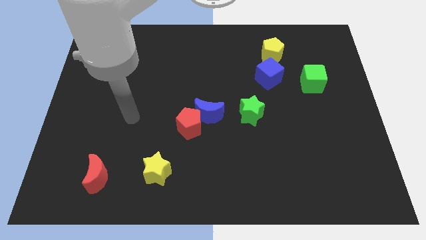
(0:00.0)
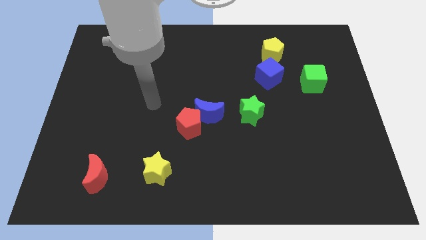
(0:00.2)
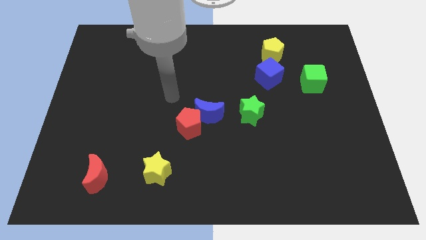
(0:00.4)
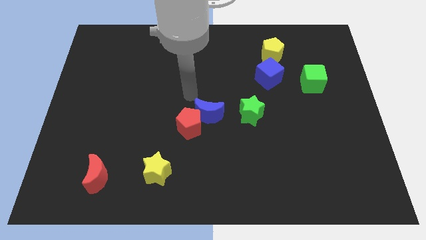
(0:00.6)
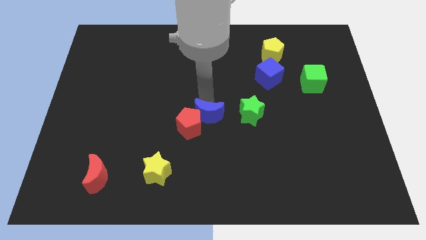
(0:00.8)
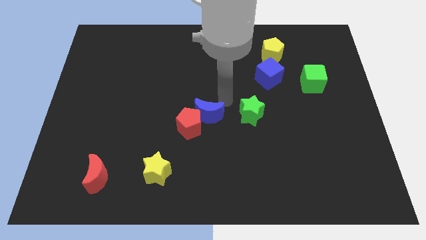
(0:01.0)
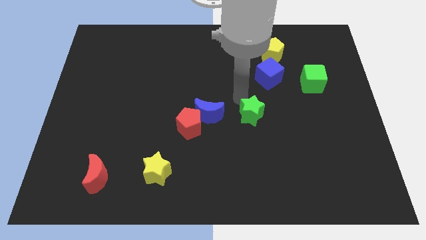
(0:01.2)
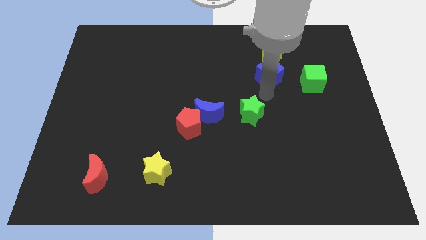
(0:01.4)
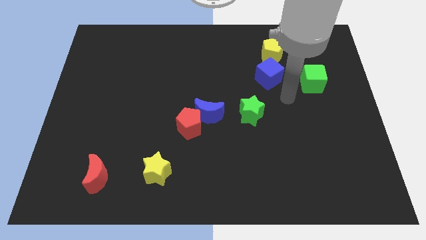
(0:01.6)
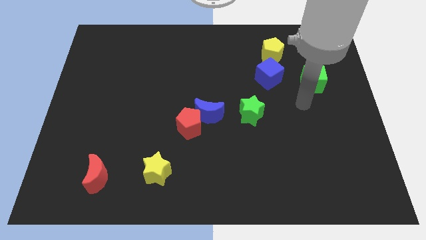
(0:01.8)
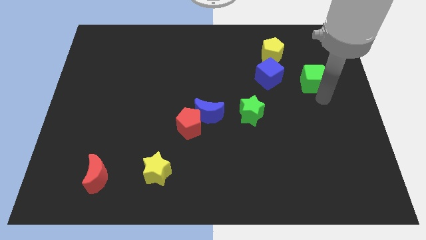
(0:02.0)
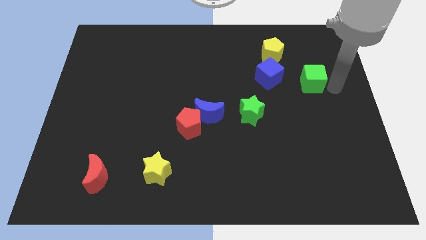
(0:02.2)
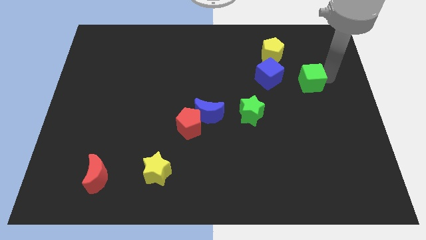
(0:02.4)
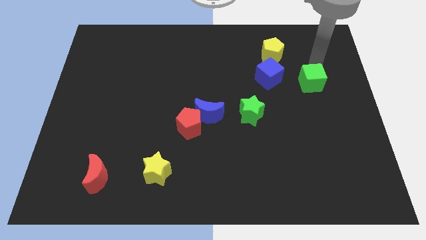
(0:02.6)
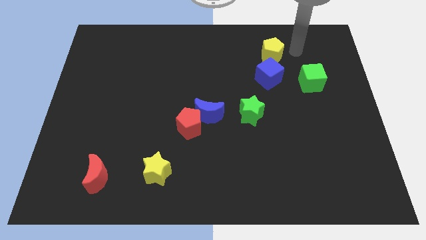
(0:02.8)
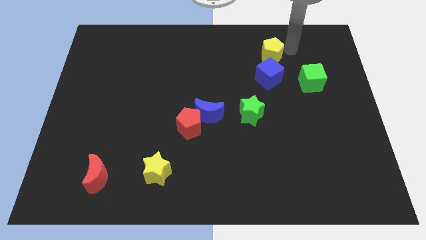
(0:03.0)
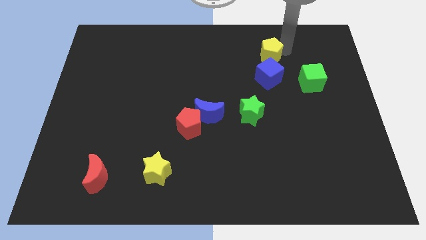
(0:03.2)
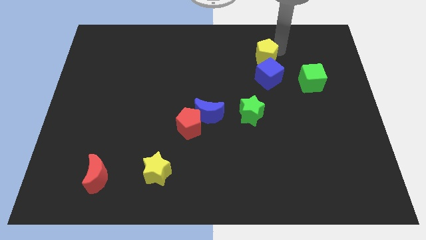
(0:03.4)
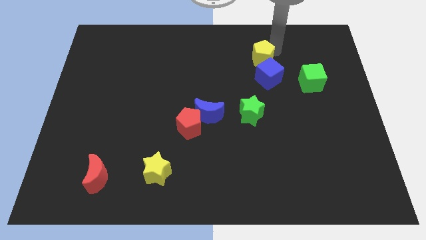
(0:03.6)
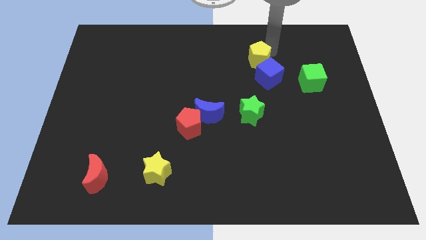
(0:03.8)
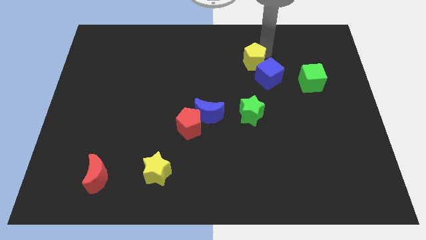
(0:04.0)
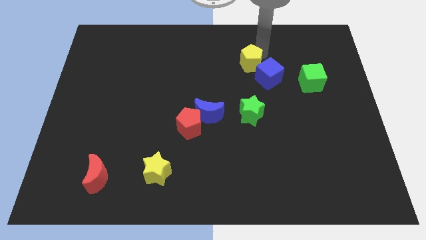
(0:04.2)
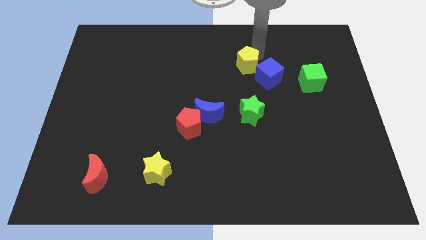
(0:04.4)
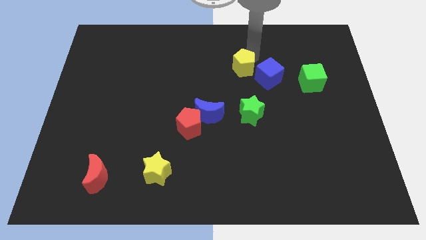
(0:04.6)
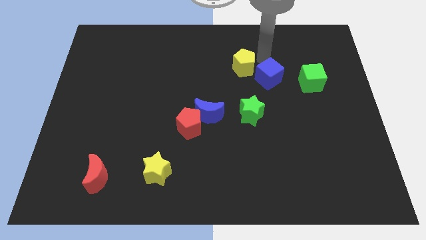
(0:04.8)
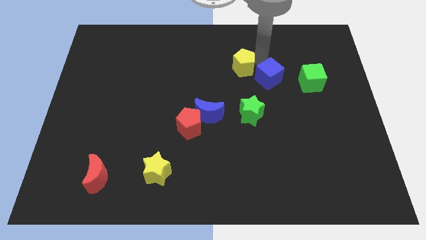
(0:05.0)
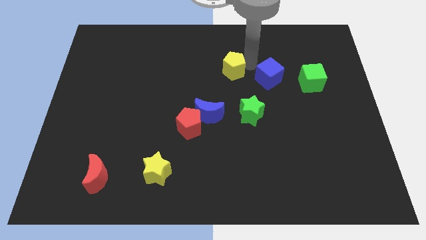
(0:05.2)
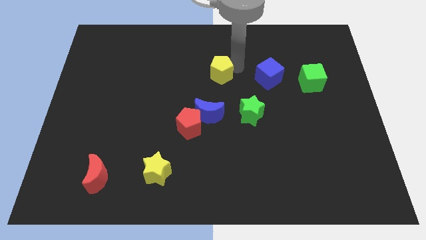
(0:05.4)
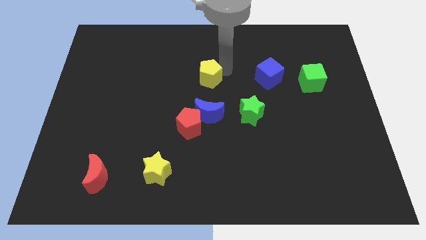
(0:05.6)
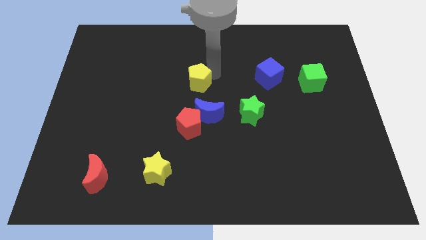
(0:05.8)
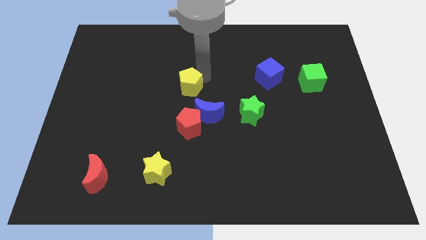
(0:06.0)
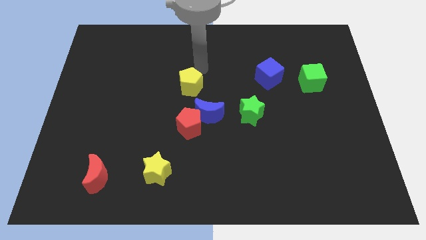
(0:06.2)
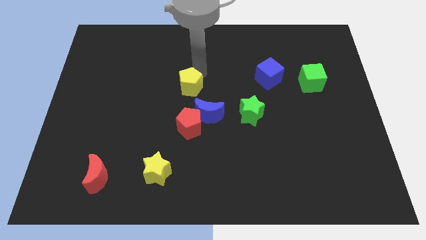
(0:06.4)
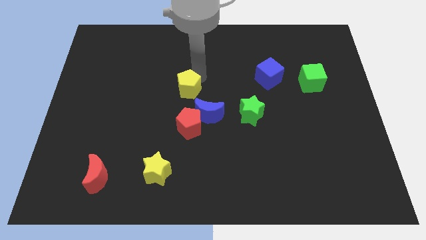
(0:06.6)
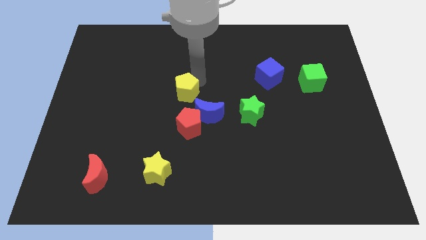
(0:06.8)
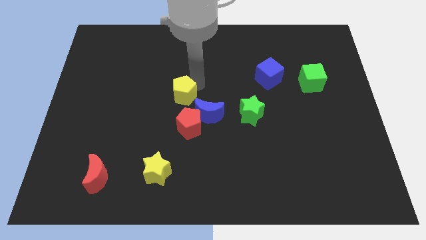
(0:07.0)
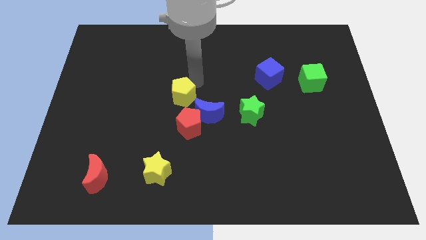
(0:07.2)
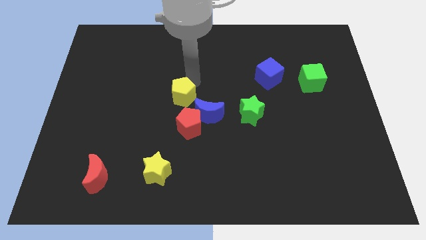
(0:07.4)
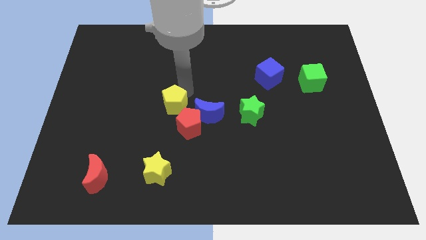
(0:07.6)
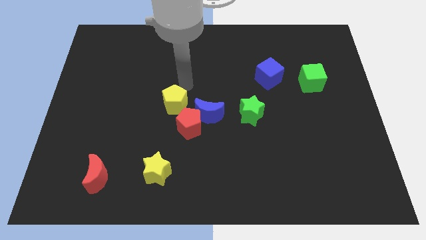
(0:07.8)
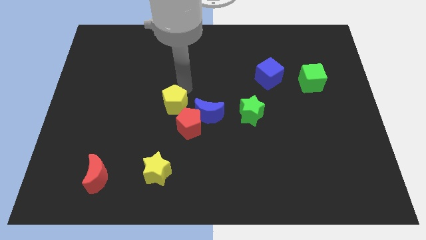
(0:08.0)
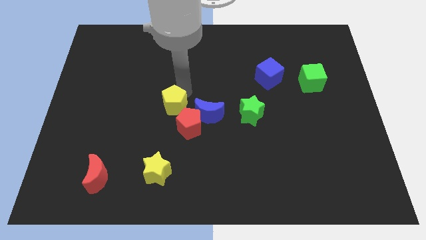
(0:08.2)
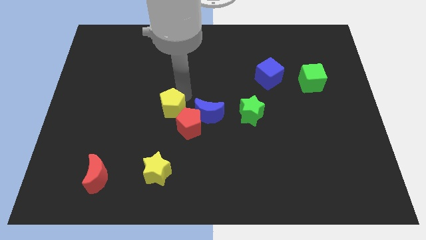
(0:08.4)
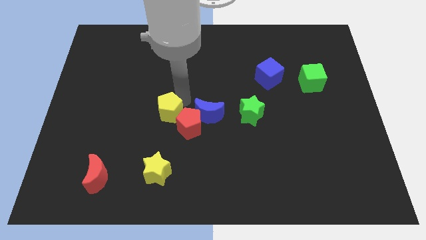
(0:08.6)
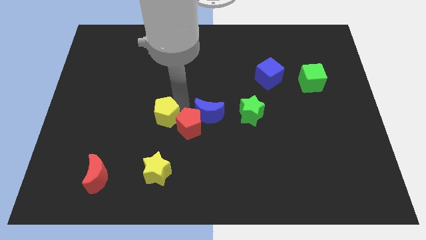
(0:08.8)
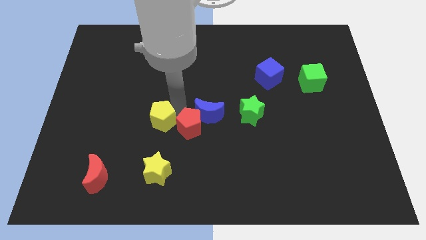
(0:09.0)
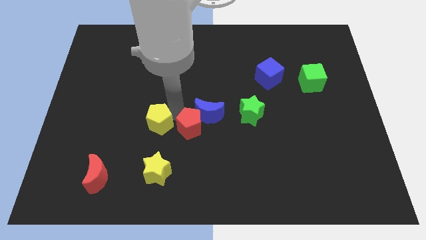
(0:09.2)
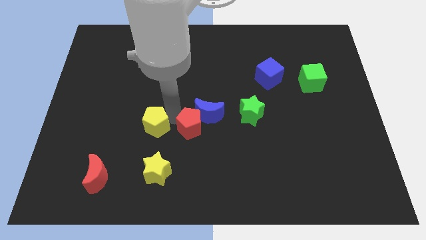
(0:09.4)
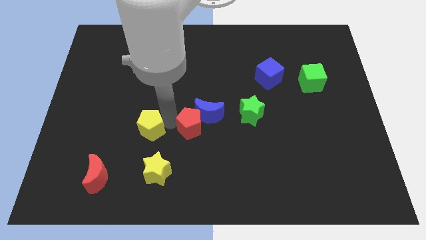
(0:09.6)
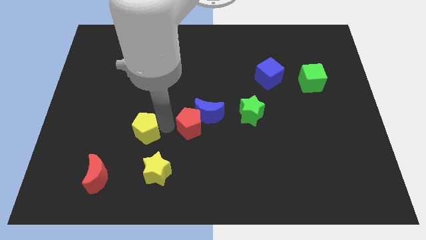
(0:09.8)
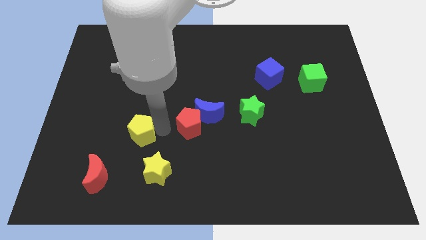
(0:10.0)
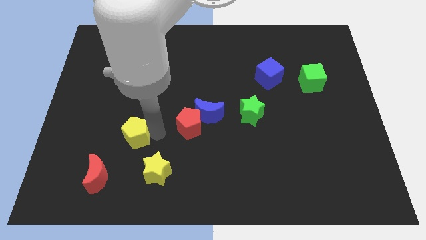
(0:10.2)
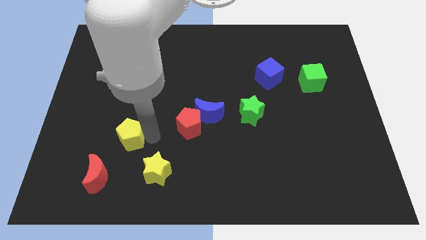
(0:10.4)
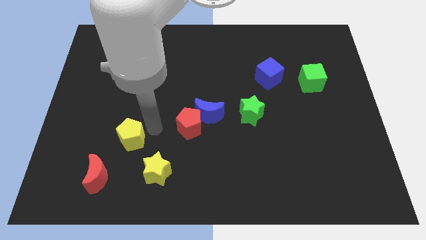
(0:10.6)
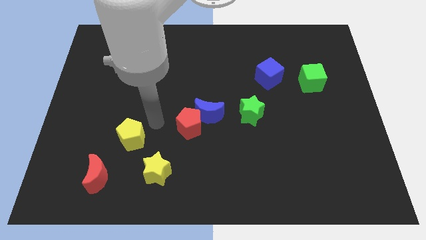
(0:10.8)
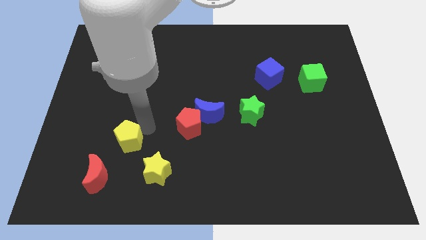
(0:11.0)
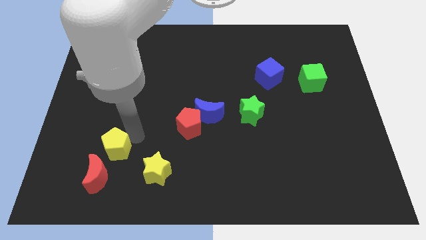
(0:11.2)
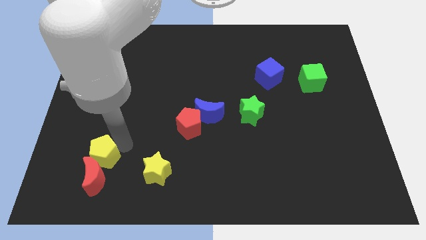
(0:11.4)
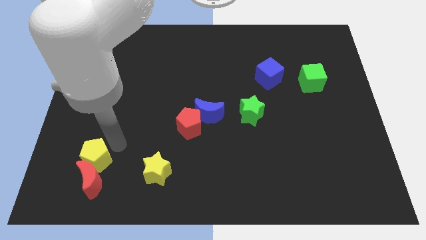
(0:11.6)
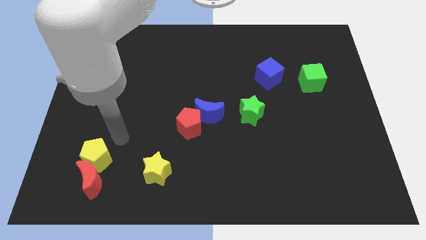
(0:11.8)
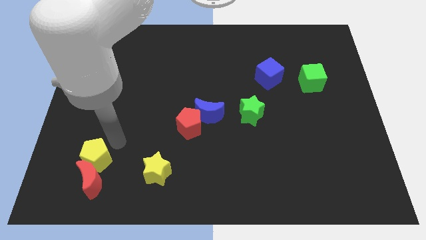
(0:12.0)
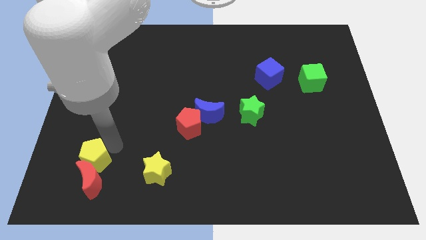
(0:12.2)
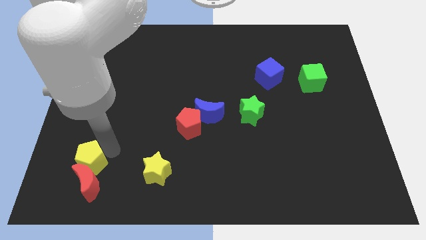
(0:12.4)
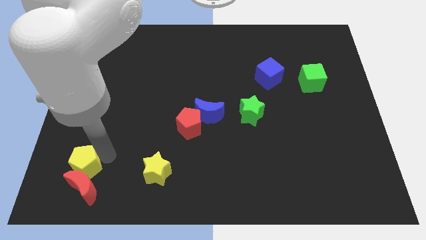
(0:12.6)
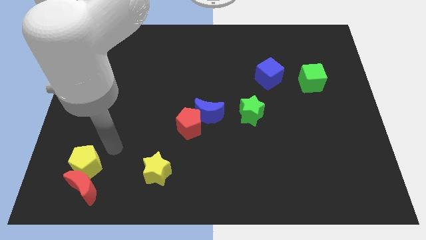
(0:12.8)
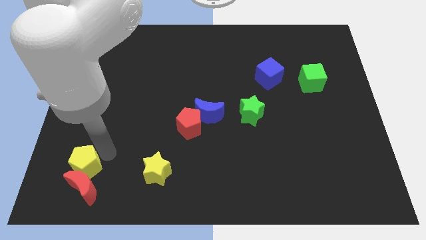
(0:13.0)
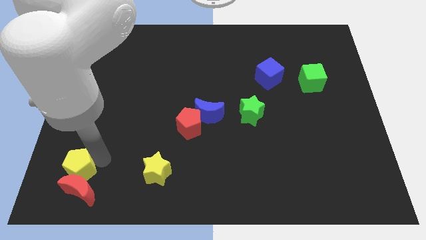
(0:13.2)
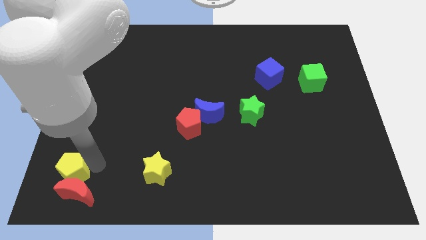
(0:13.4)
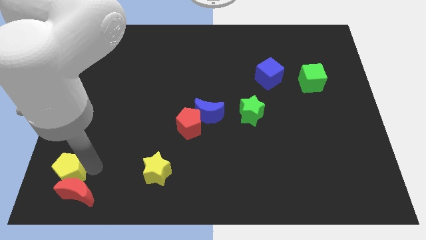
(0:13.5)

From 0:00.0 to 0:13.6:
move the yellow pentagon to the lower left corner
